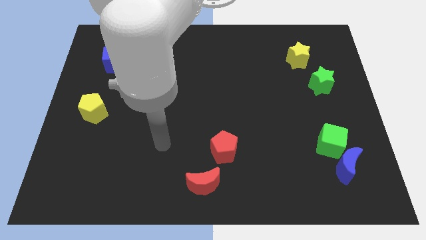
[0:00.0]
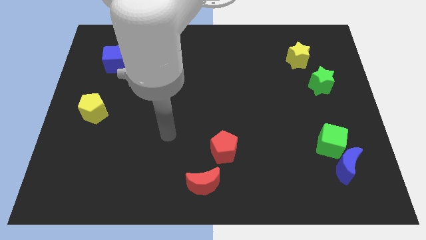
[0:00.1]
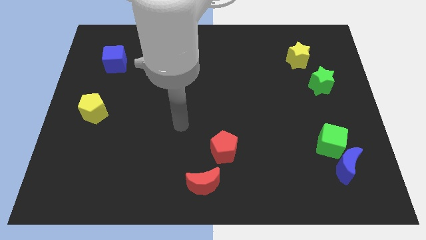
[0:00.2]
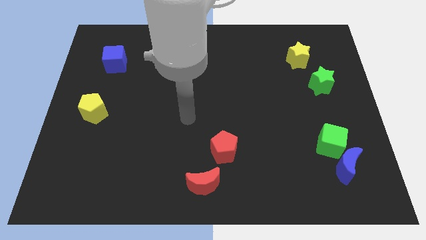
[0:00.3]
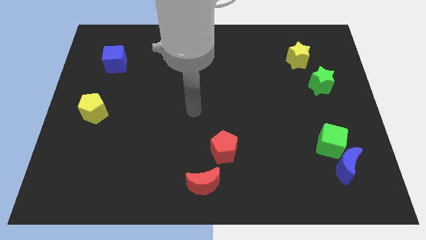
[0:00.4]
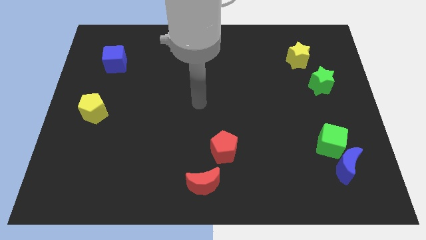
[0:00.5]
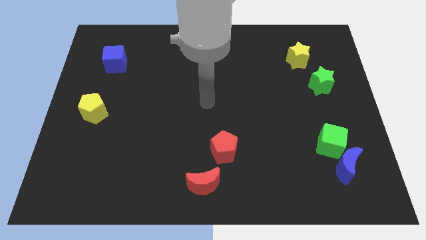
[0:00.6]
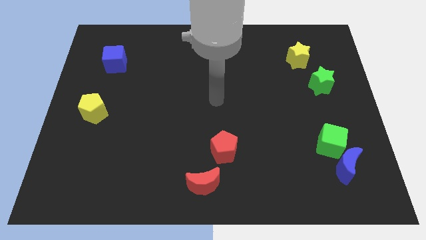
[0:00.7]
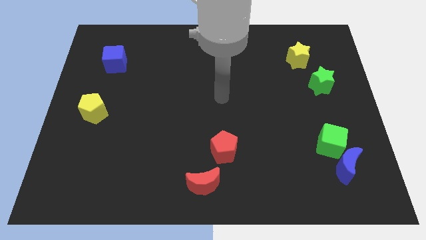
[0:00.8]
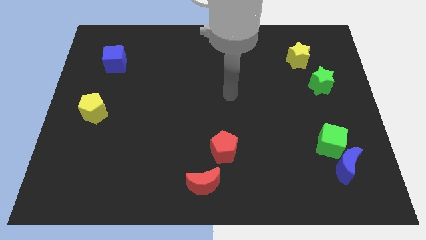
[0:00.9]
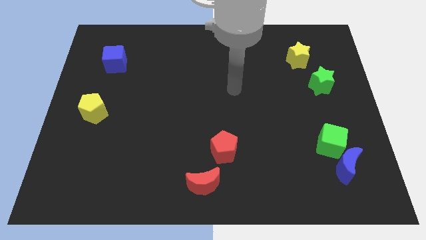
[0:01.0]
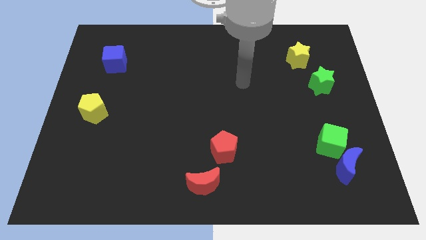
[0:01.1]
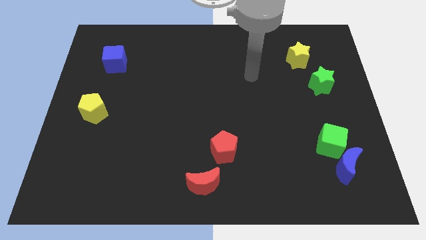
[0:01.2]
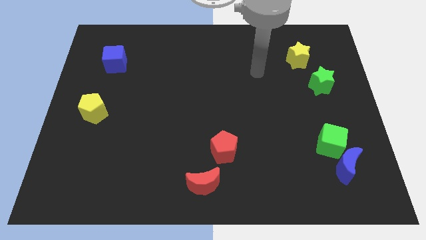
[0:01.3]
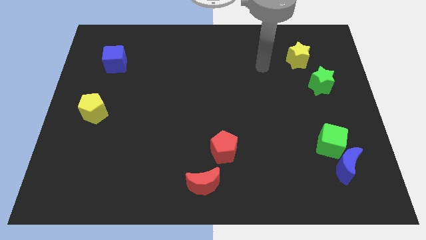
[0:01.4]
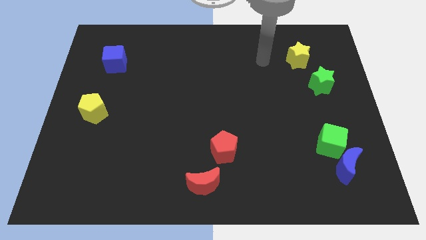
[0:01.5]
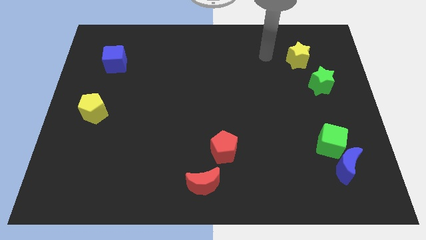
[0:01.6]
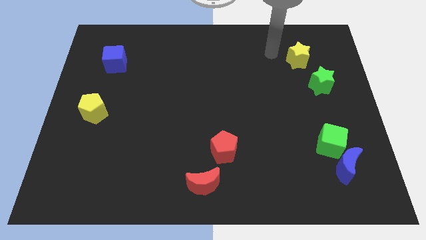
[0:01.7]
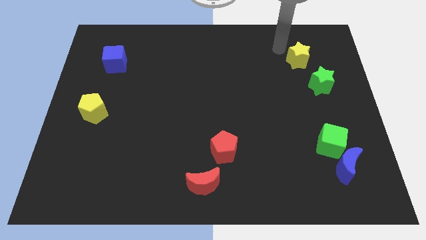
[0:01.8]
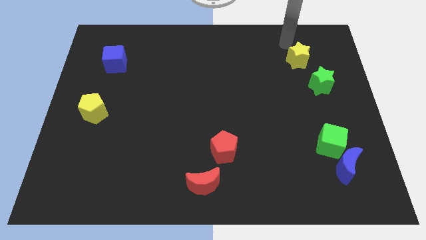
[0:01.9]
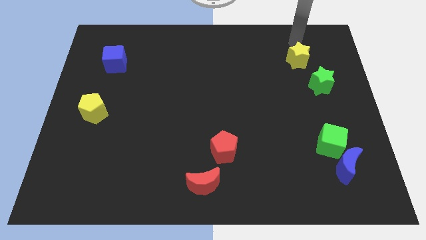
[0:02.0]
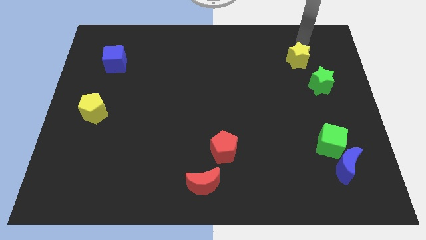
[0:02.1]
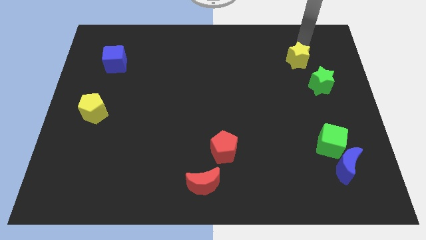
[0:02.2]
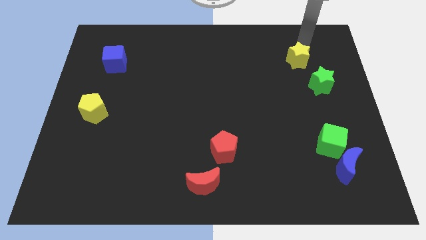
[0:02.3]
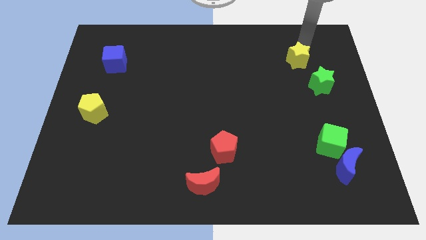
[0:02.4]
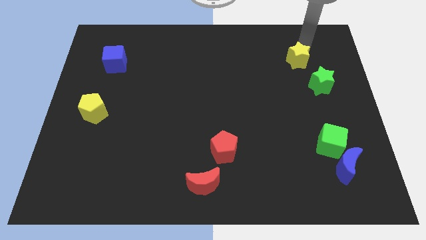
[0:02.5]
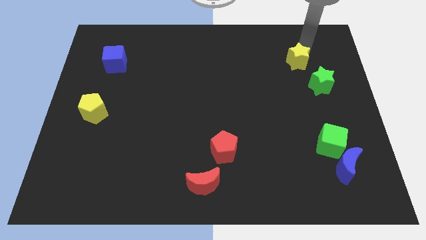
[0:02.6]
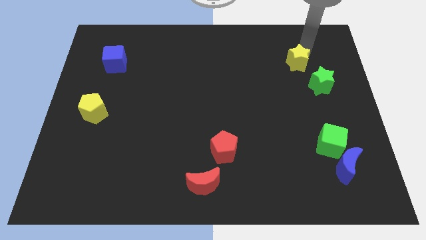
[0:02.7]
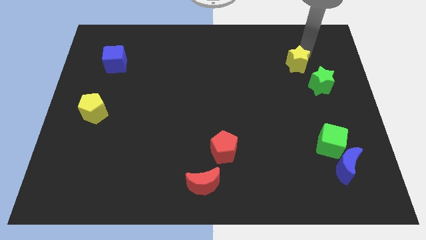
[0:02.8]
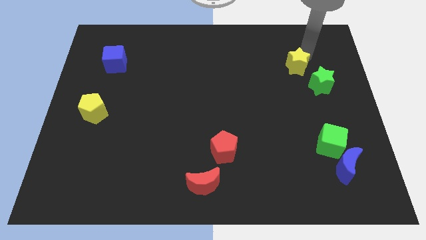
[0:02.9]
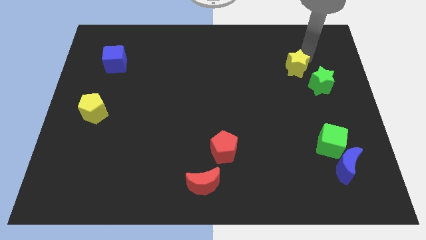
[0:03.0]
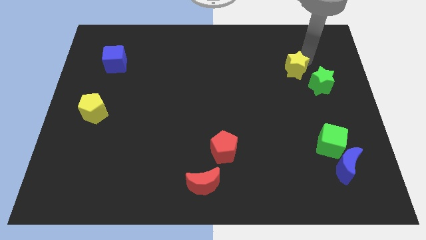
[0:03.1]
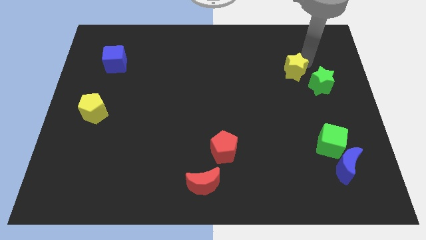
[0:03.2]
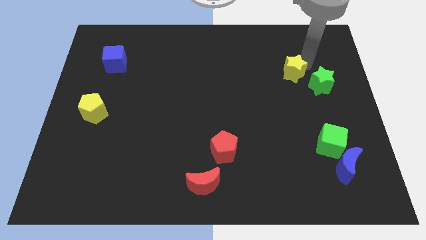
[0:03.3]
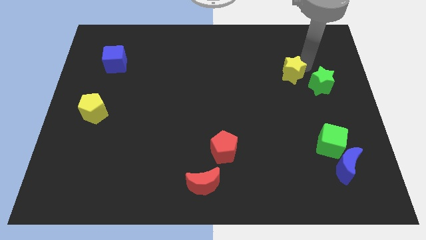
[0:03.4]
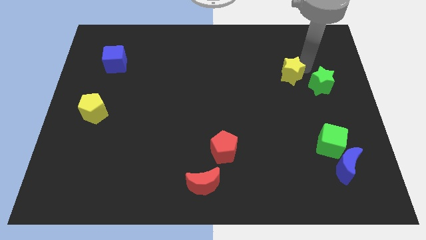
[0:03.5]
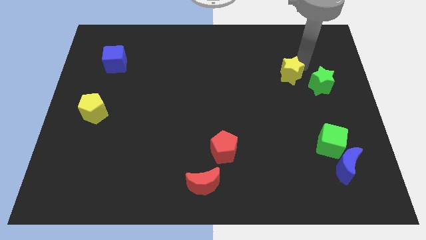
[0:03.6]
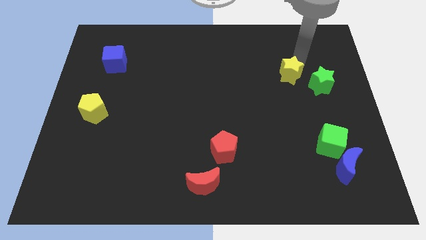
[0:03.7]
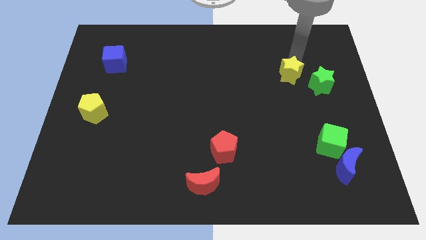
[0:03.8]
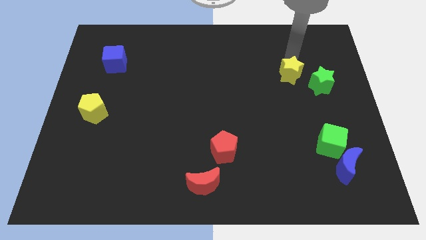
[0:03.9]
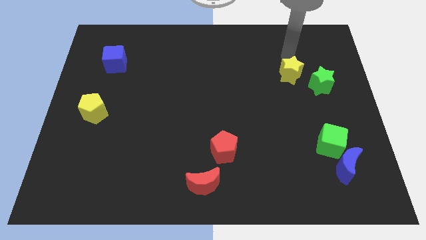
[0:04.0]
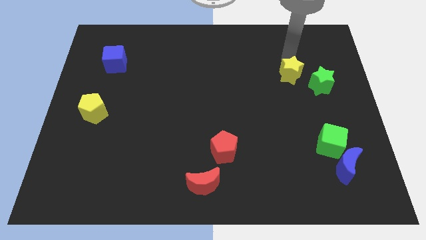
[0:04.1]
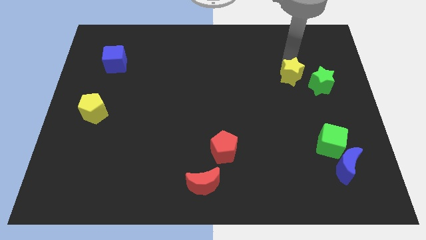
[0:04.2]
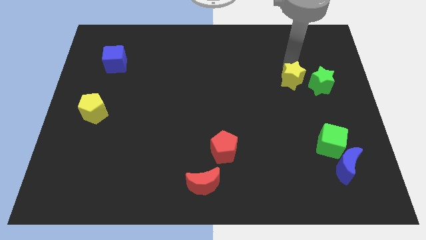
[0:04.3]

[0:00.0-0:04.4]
slightly slide the yellow star down

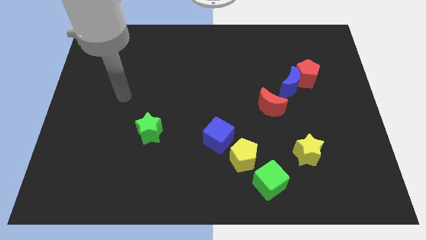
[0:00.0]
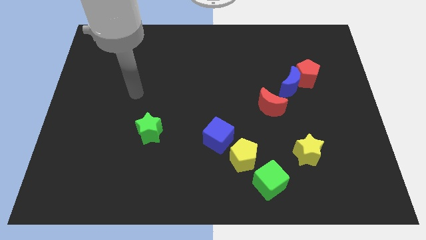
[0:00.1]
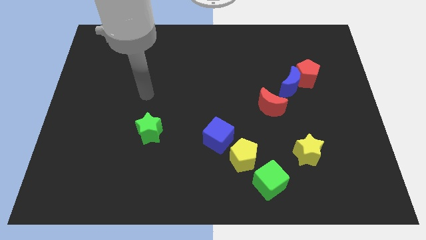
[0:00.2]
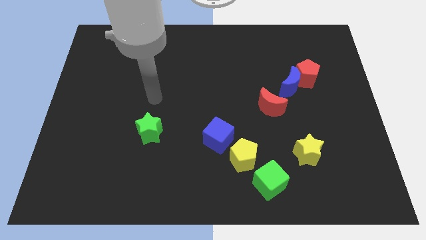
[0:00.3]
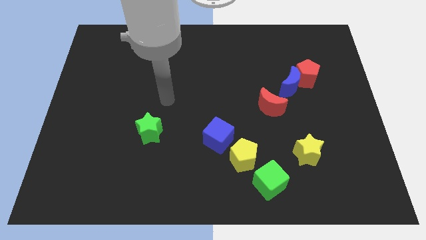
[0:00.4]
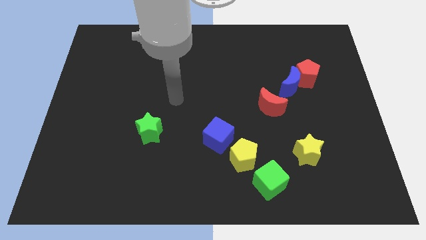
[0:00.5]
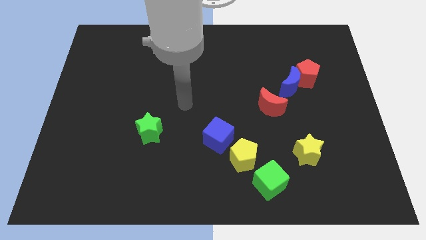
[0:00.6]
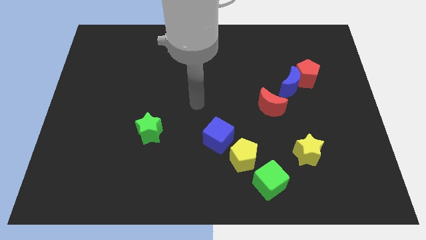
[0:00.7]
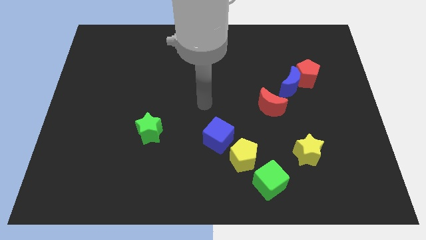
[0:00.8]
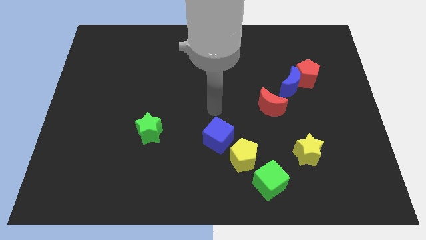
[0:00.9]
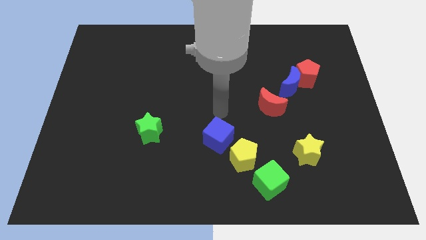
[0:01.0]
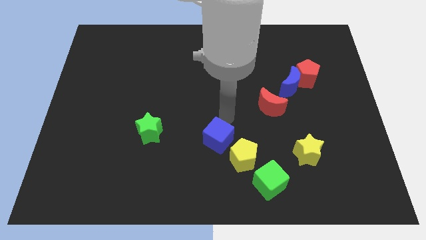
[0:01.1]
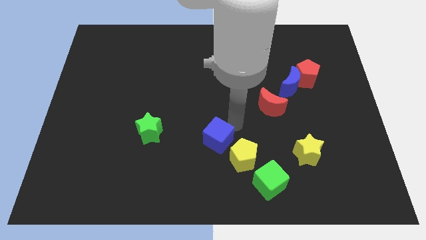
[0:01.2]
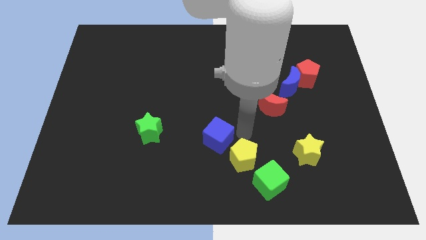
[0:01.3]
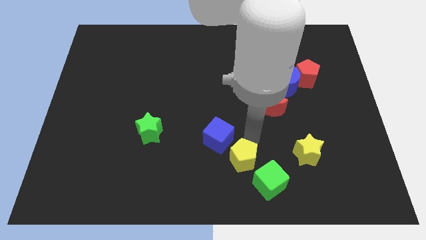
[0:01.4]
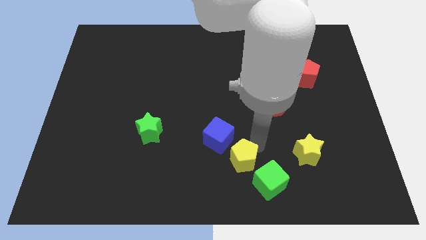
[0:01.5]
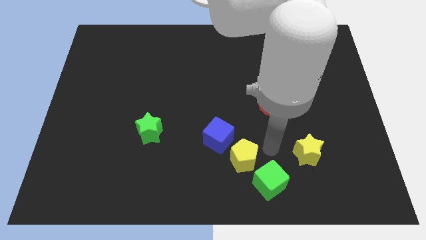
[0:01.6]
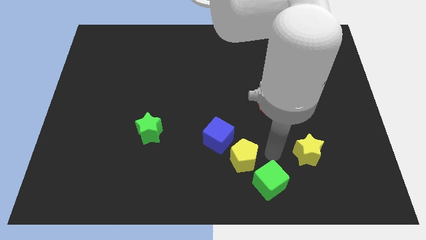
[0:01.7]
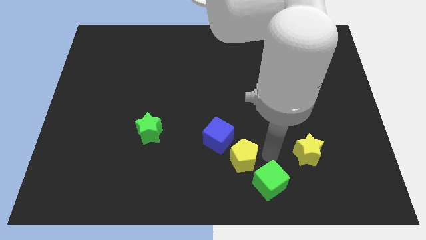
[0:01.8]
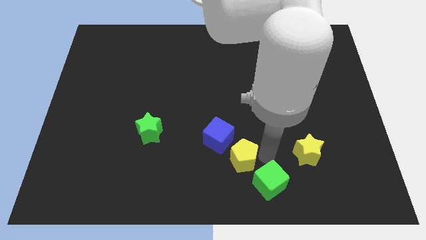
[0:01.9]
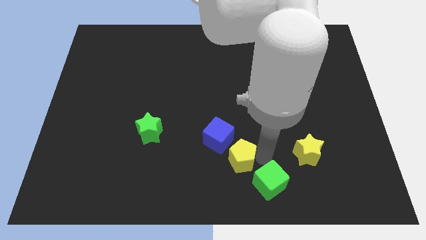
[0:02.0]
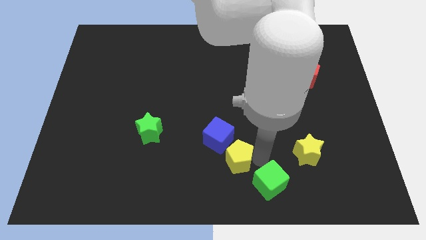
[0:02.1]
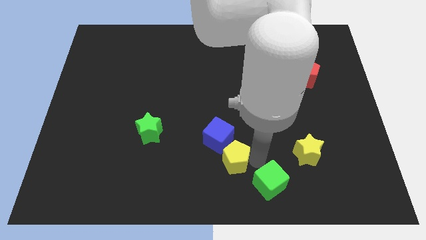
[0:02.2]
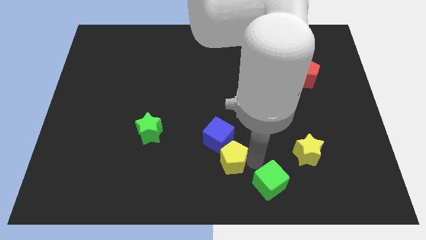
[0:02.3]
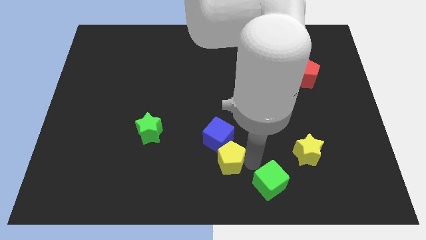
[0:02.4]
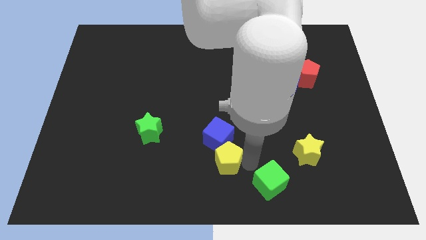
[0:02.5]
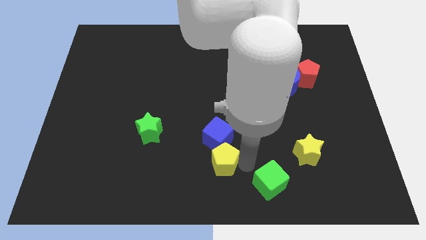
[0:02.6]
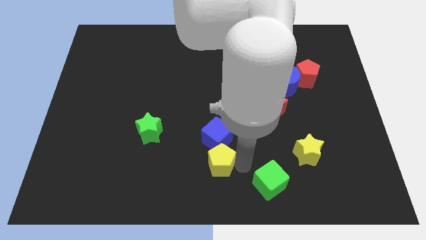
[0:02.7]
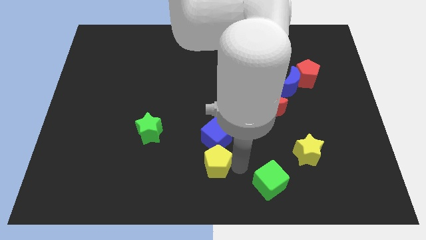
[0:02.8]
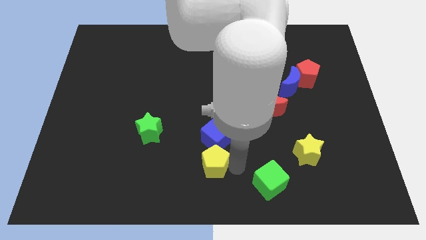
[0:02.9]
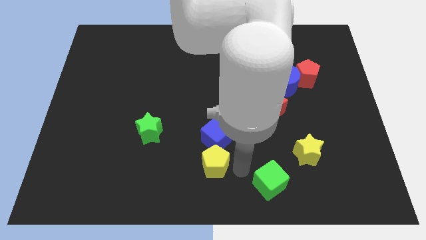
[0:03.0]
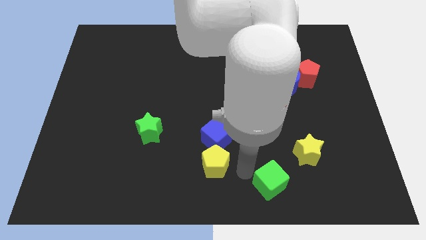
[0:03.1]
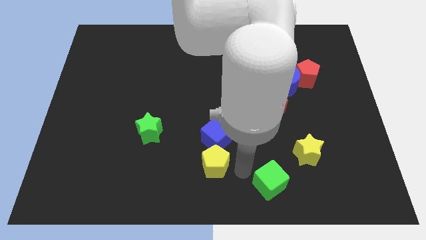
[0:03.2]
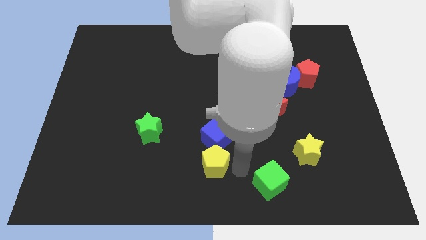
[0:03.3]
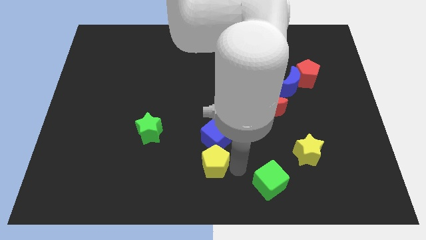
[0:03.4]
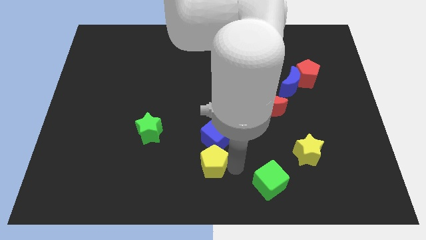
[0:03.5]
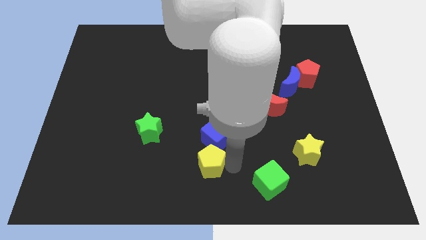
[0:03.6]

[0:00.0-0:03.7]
slightly slide the yellow pentagon left
